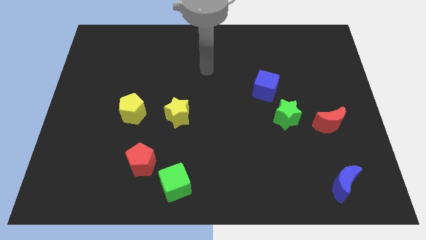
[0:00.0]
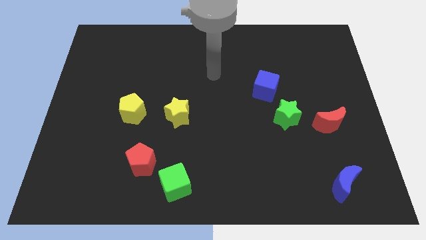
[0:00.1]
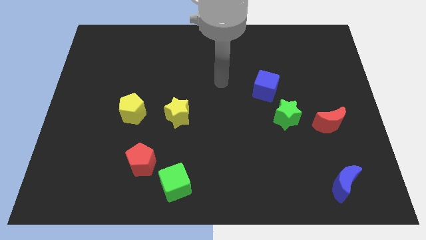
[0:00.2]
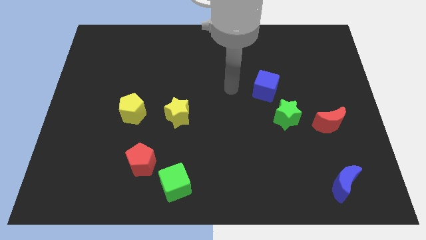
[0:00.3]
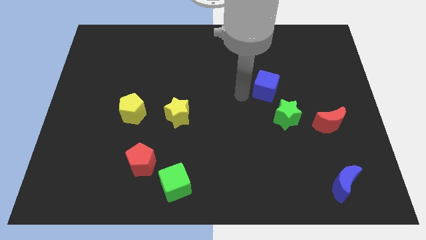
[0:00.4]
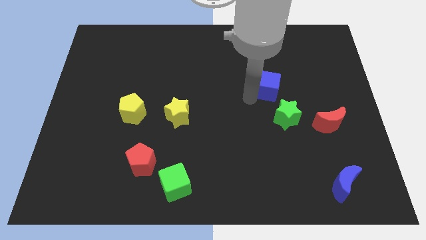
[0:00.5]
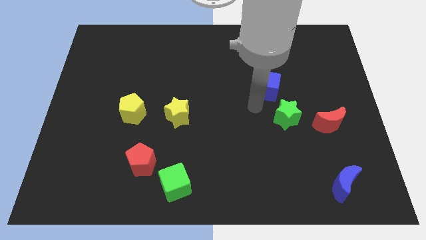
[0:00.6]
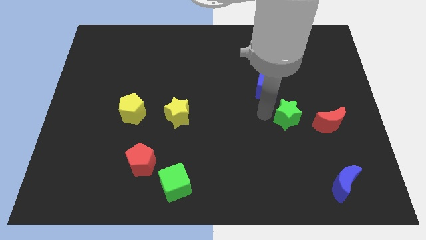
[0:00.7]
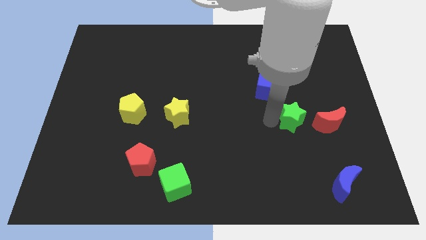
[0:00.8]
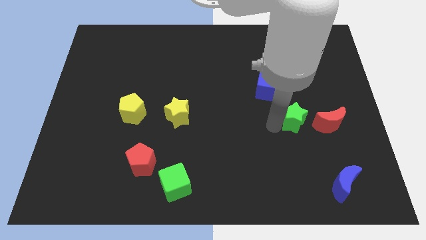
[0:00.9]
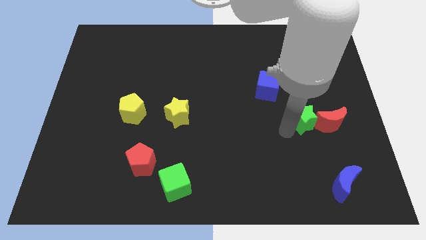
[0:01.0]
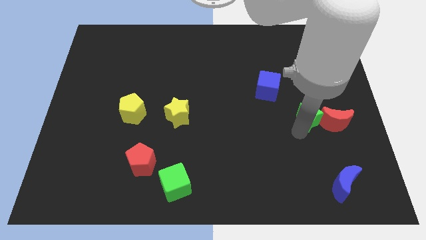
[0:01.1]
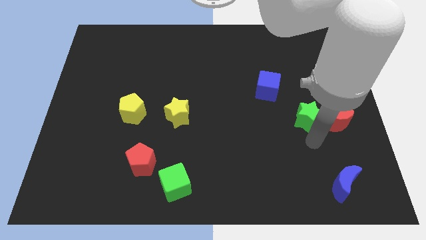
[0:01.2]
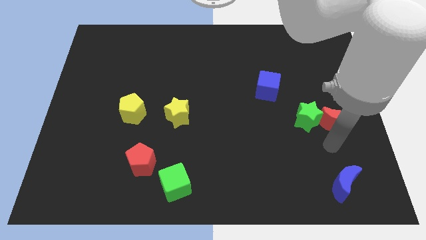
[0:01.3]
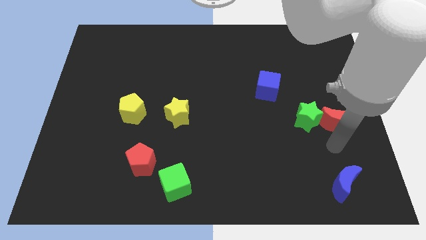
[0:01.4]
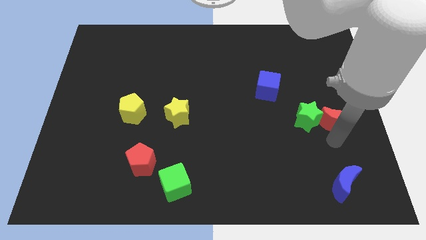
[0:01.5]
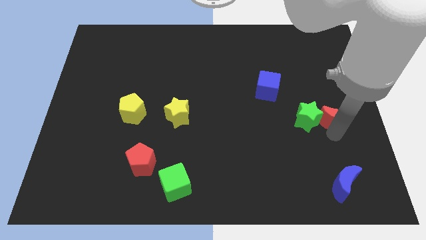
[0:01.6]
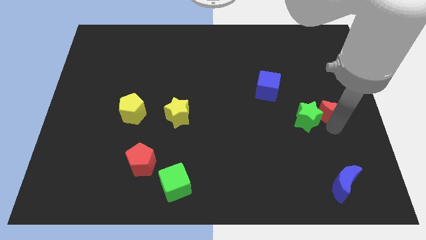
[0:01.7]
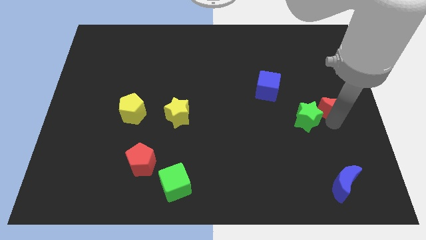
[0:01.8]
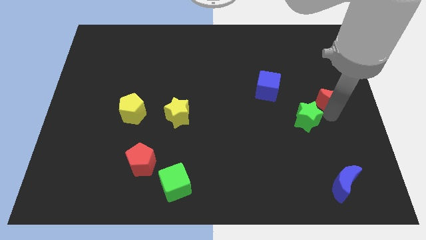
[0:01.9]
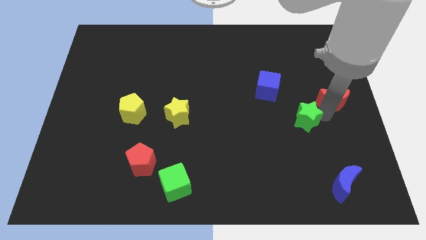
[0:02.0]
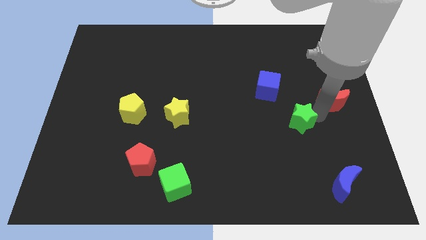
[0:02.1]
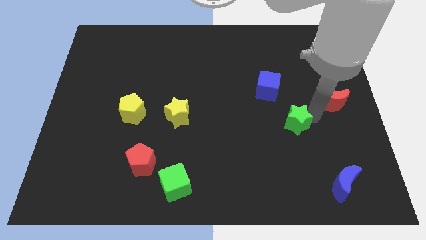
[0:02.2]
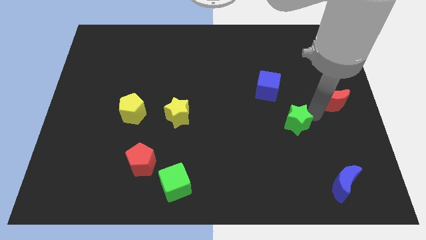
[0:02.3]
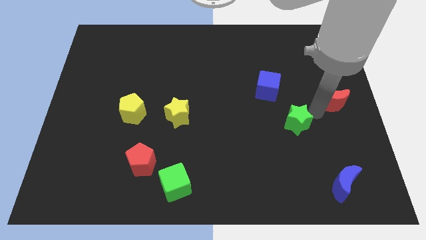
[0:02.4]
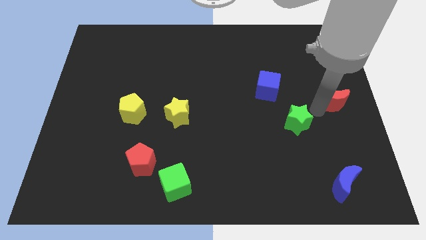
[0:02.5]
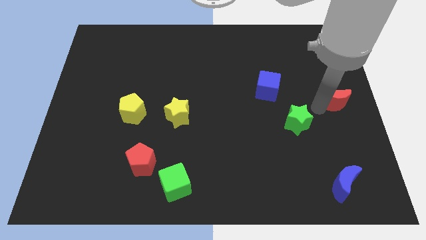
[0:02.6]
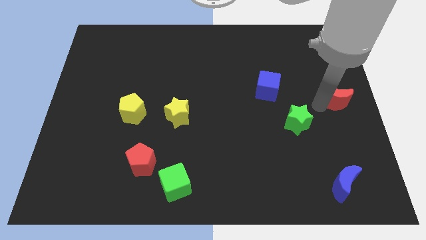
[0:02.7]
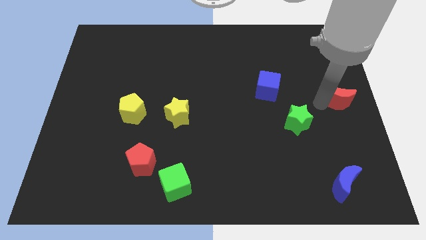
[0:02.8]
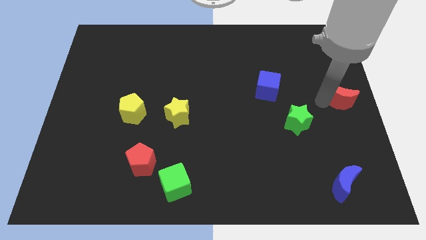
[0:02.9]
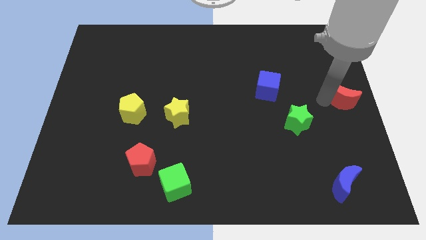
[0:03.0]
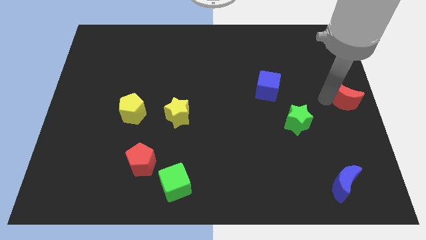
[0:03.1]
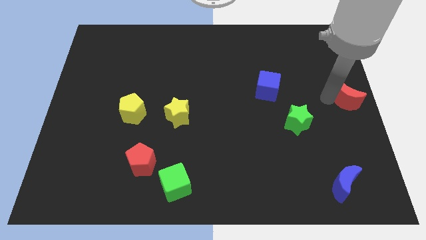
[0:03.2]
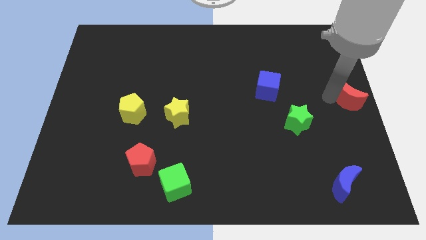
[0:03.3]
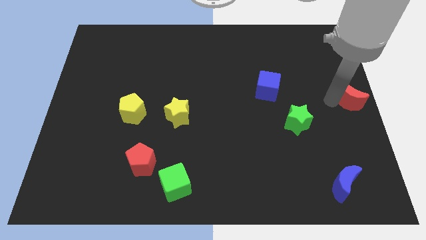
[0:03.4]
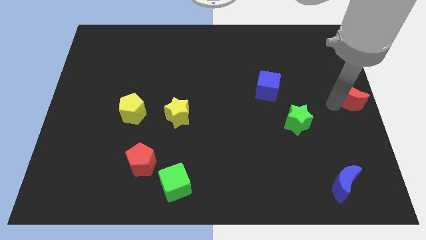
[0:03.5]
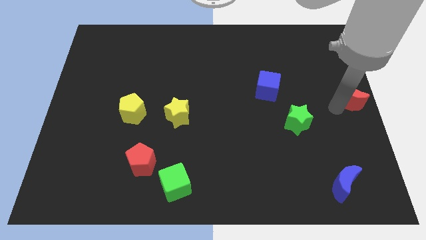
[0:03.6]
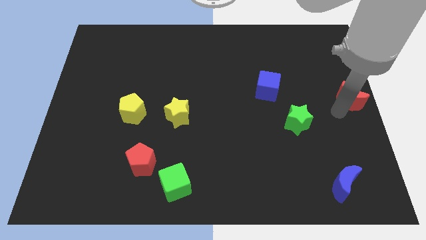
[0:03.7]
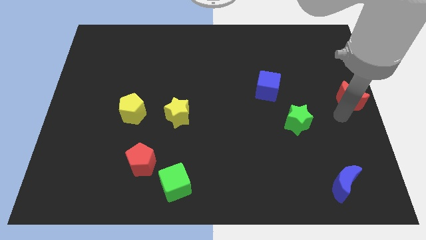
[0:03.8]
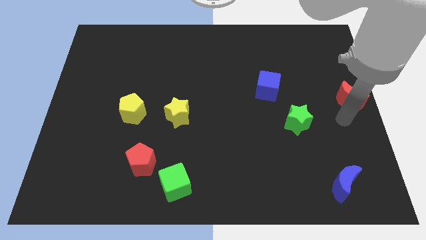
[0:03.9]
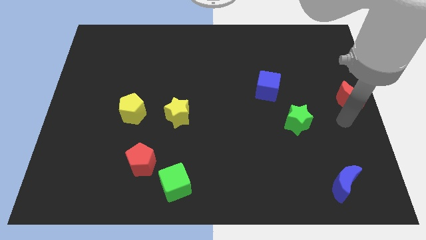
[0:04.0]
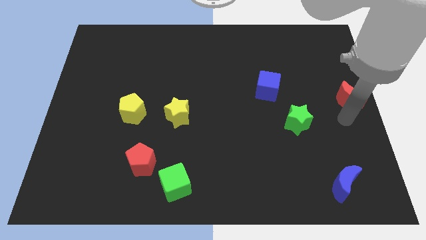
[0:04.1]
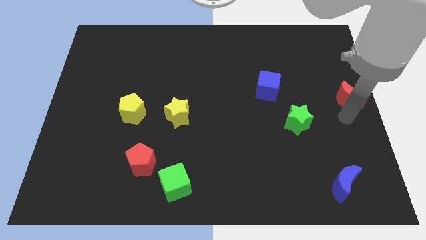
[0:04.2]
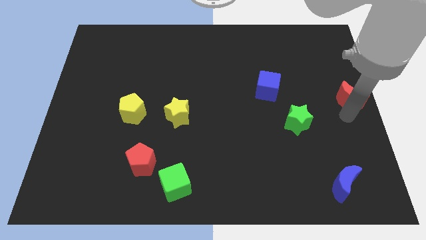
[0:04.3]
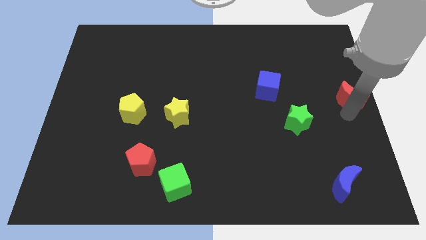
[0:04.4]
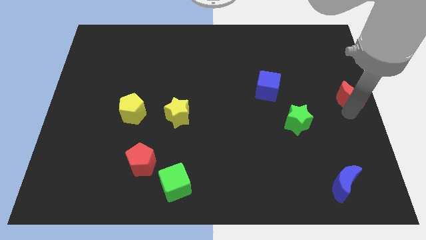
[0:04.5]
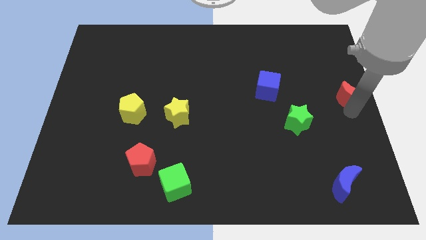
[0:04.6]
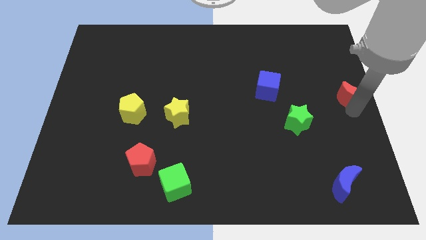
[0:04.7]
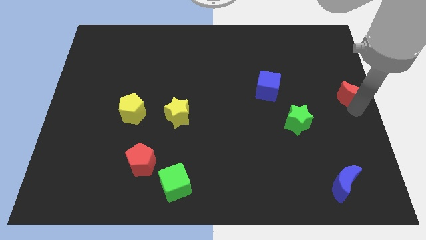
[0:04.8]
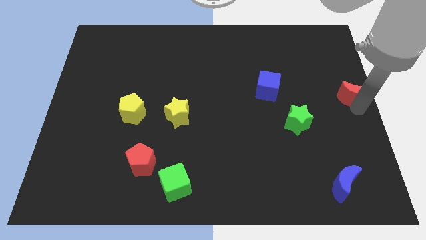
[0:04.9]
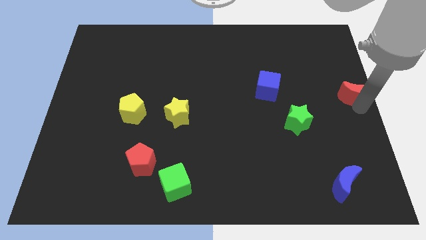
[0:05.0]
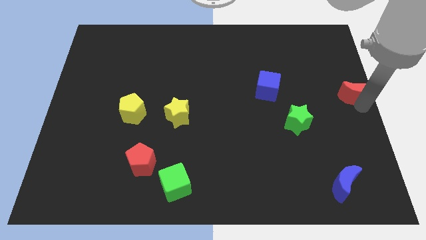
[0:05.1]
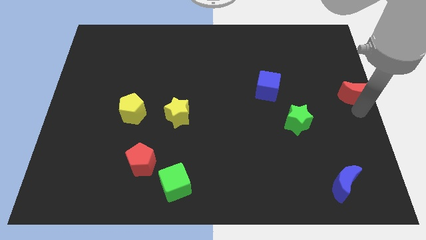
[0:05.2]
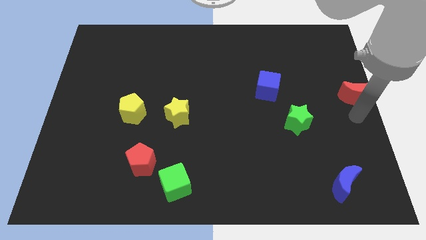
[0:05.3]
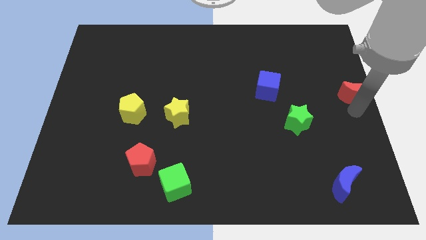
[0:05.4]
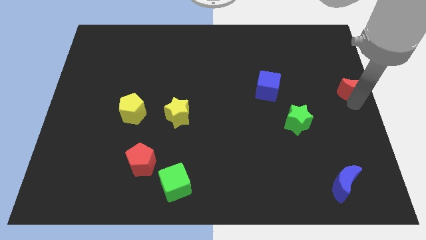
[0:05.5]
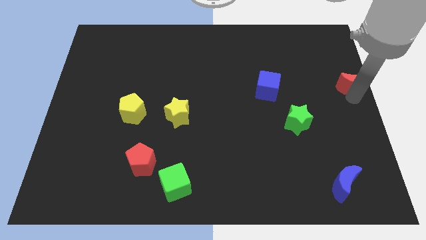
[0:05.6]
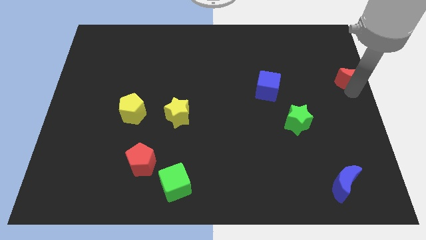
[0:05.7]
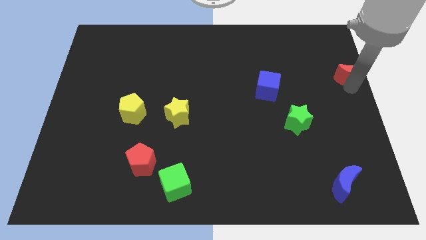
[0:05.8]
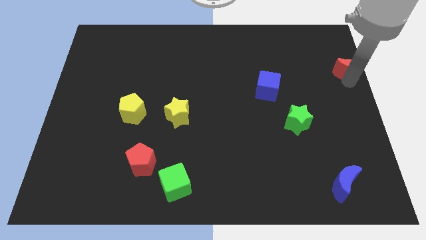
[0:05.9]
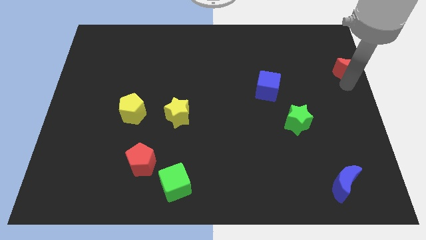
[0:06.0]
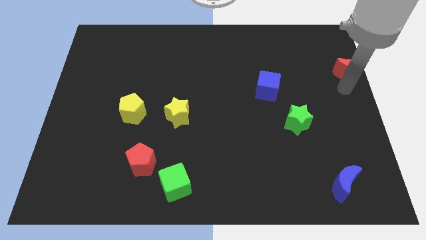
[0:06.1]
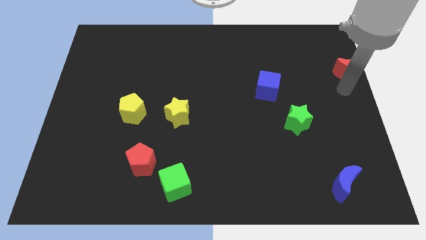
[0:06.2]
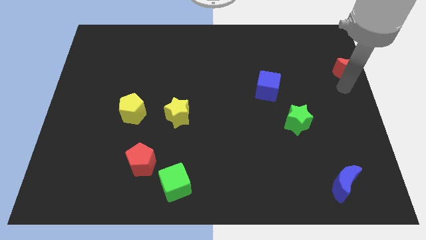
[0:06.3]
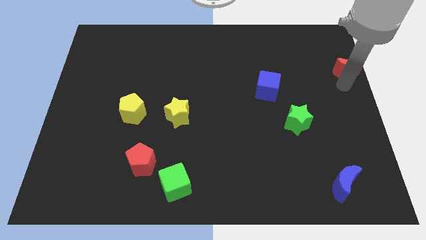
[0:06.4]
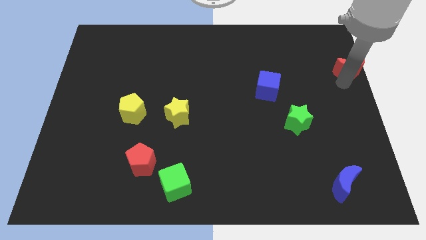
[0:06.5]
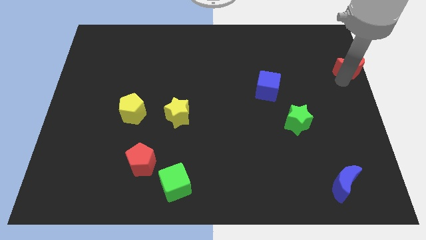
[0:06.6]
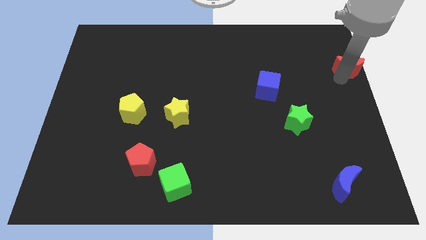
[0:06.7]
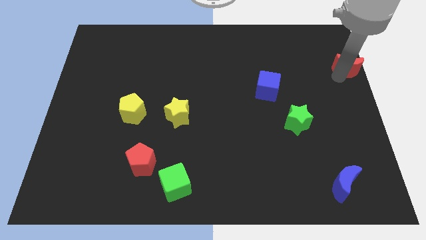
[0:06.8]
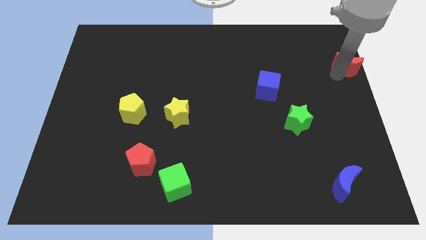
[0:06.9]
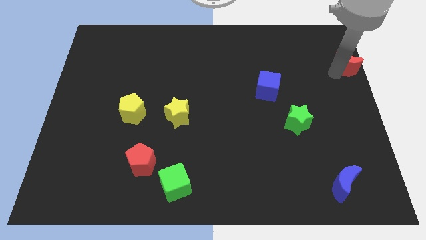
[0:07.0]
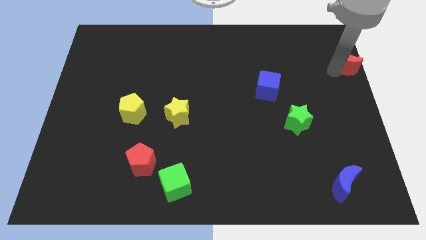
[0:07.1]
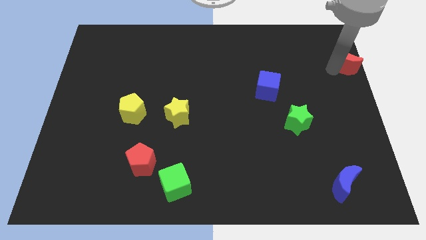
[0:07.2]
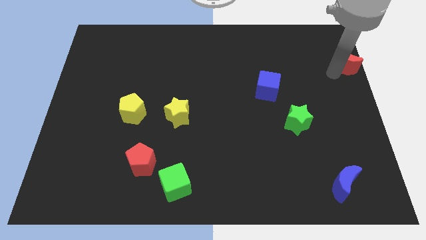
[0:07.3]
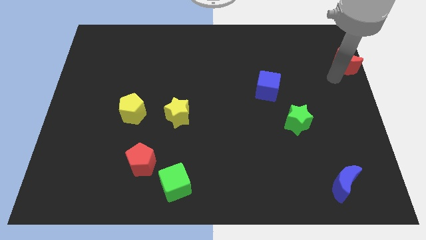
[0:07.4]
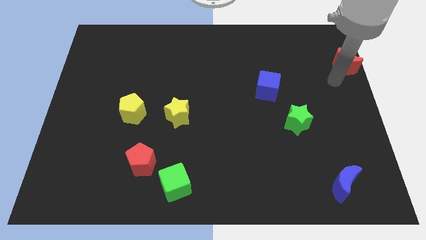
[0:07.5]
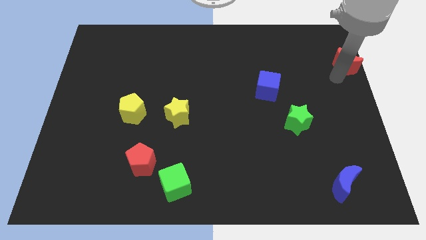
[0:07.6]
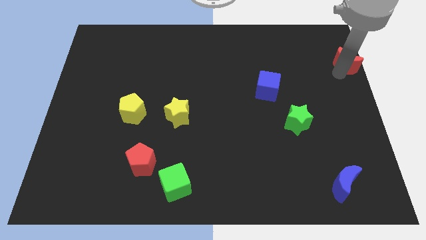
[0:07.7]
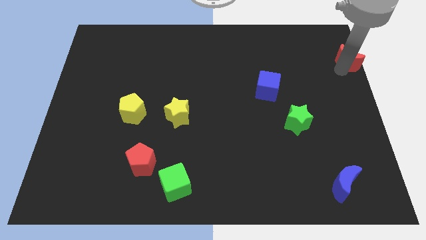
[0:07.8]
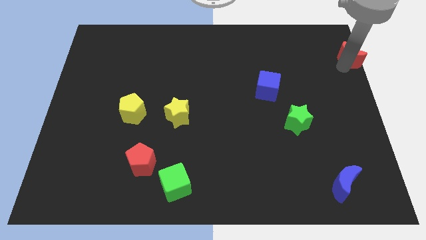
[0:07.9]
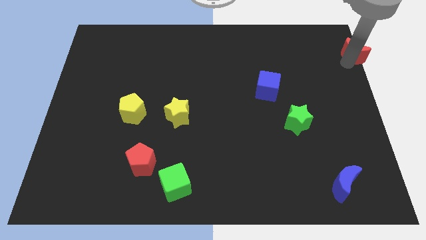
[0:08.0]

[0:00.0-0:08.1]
push the red moon to the upper right corner
